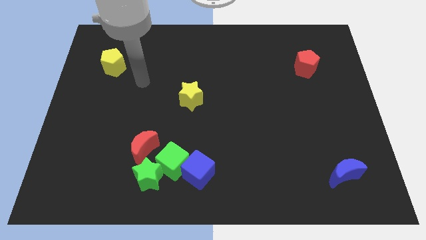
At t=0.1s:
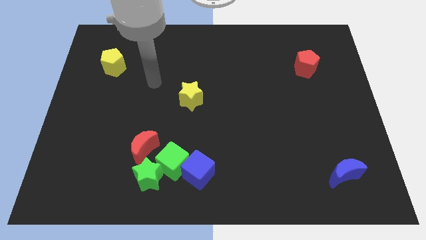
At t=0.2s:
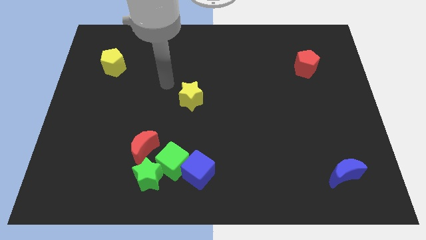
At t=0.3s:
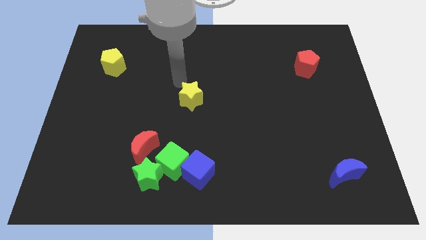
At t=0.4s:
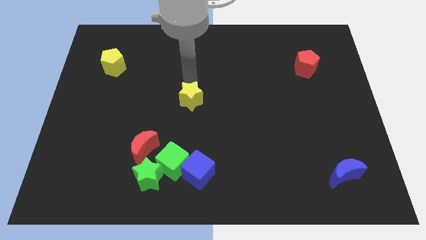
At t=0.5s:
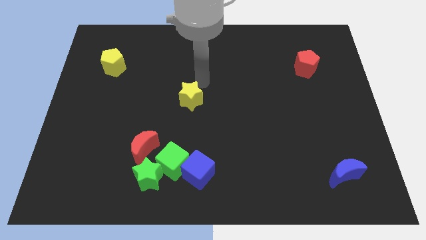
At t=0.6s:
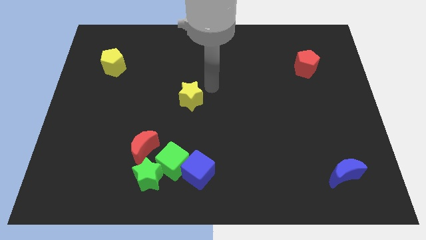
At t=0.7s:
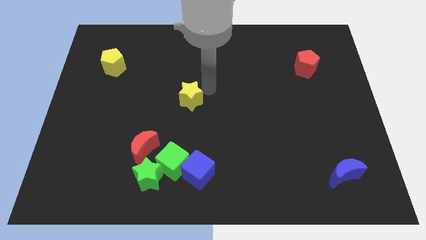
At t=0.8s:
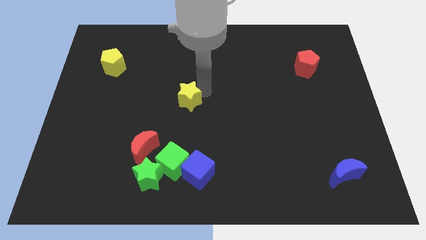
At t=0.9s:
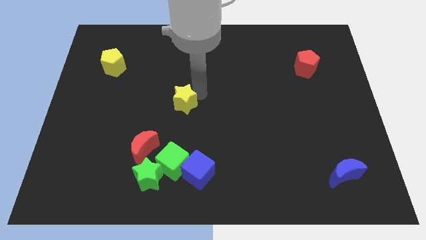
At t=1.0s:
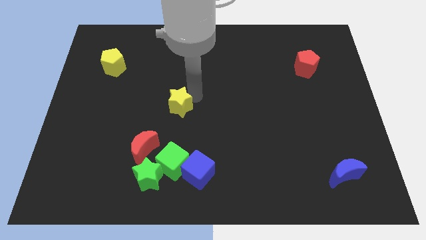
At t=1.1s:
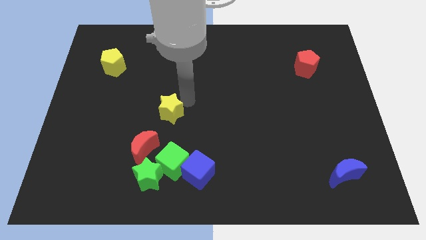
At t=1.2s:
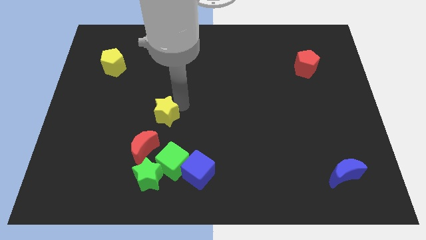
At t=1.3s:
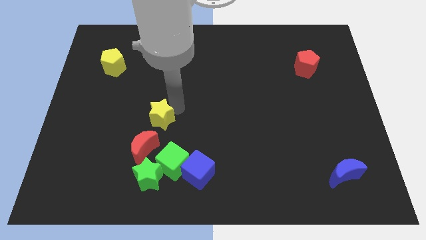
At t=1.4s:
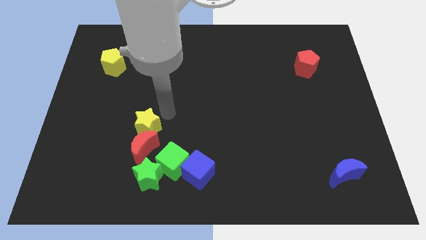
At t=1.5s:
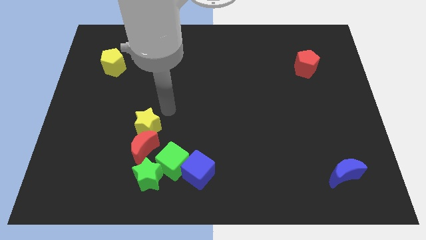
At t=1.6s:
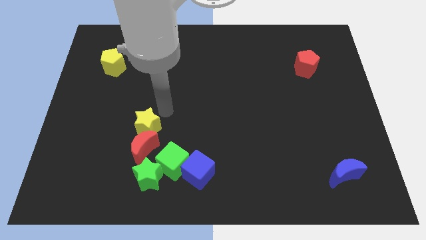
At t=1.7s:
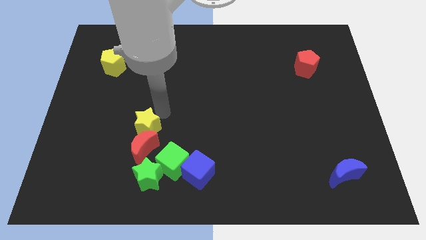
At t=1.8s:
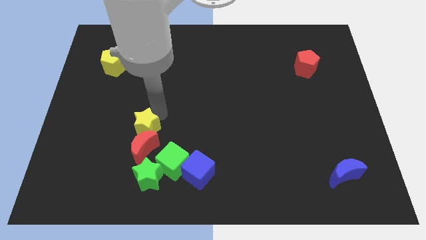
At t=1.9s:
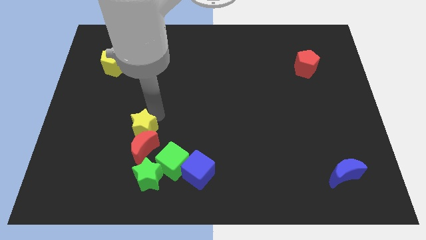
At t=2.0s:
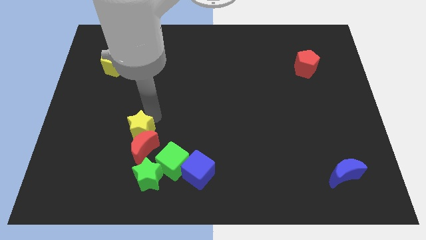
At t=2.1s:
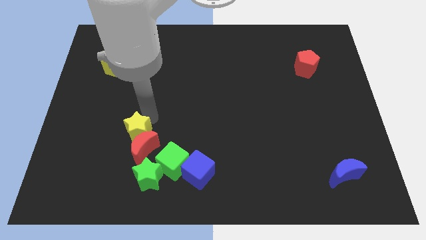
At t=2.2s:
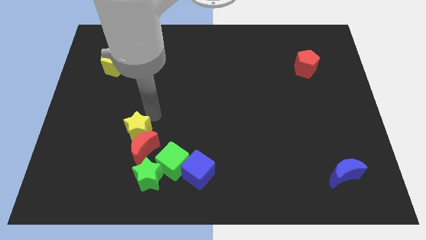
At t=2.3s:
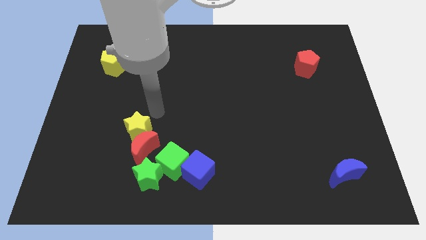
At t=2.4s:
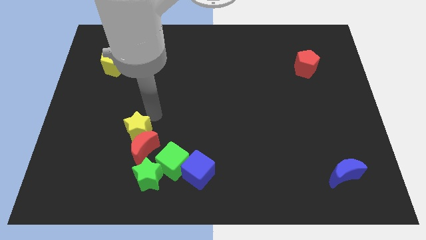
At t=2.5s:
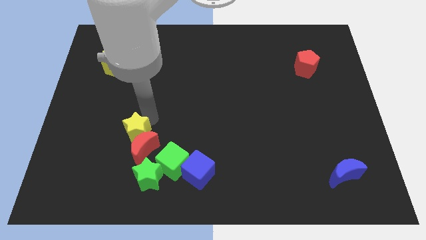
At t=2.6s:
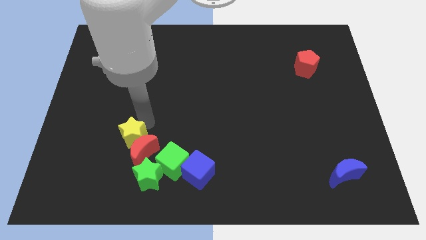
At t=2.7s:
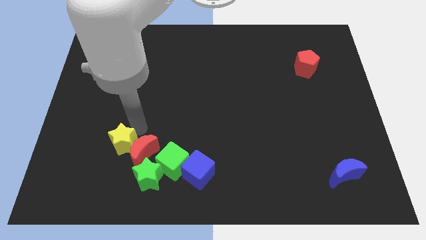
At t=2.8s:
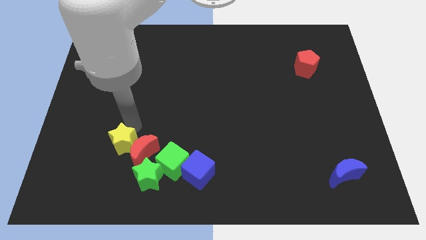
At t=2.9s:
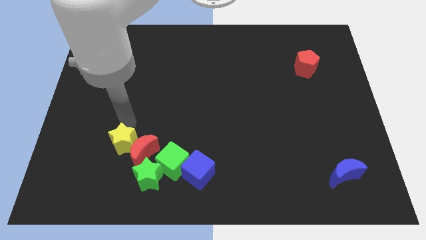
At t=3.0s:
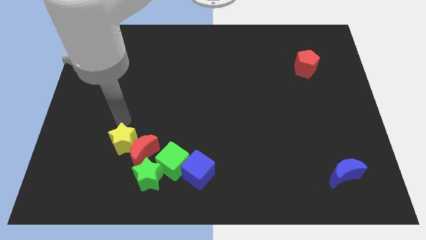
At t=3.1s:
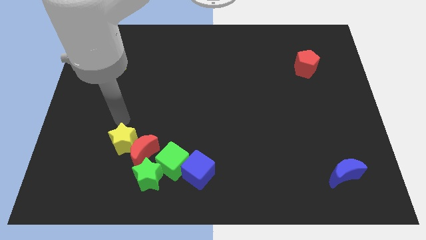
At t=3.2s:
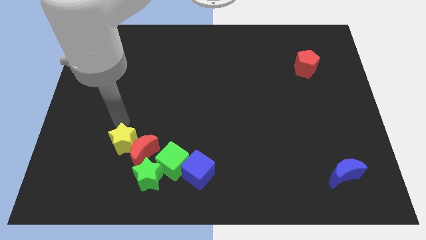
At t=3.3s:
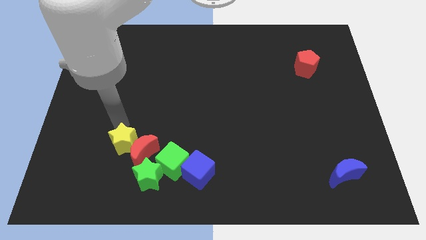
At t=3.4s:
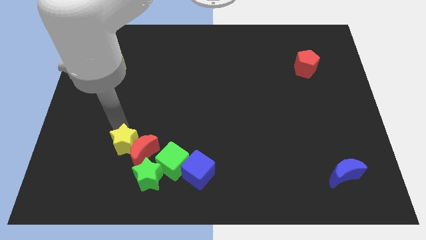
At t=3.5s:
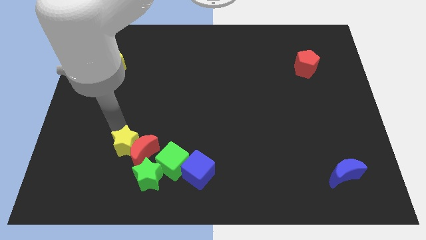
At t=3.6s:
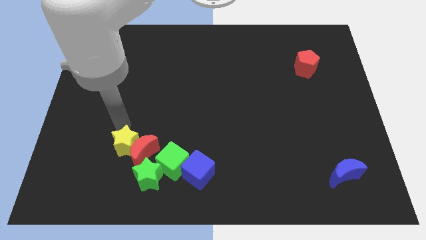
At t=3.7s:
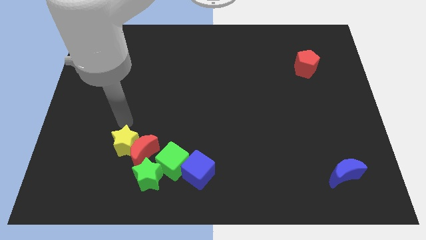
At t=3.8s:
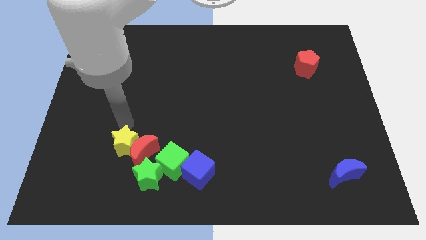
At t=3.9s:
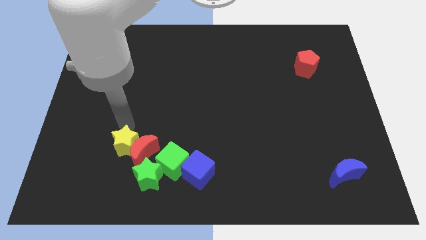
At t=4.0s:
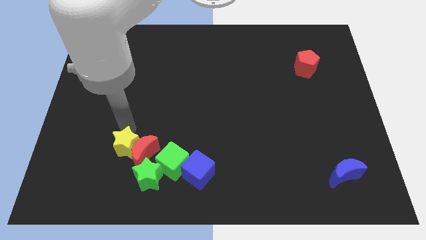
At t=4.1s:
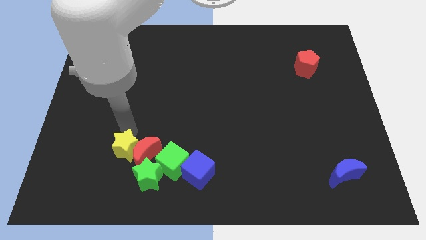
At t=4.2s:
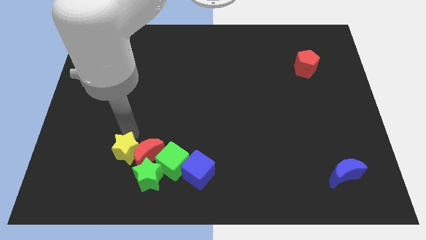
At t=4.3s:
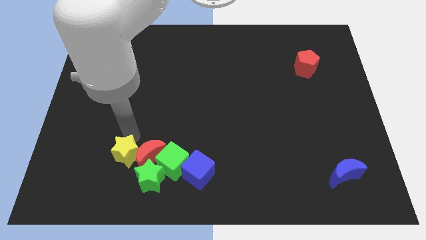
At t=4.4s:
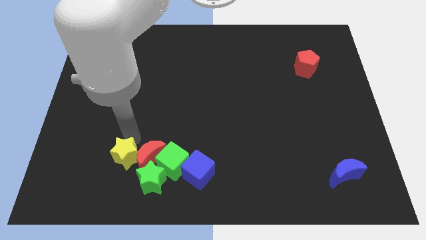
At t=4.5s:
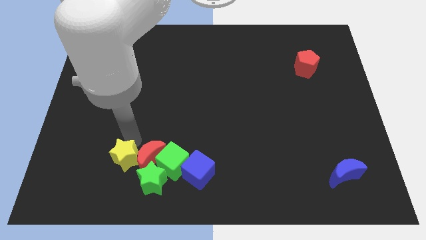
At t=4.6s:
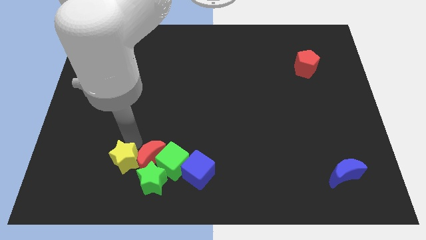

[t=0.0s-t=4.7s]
move the yellow star left of the blue cube

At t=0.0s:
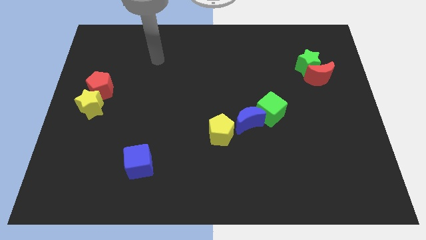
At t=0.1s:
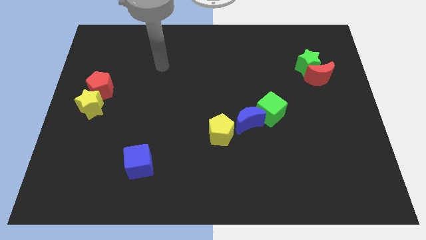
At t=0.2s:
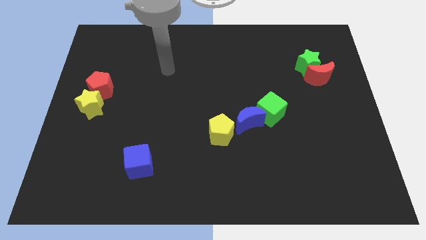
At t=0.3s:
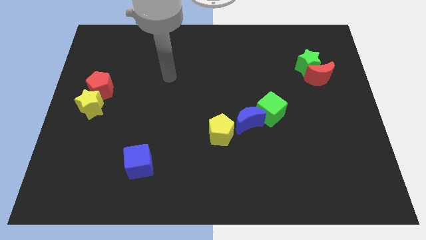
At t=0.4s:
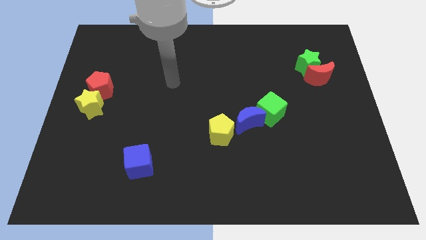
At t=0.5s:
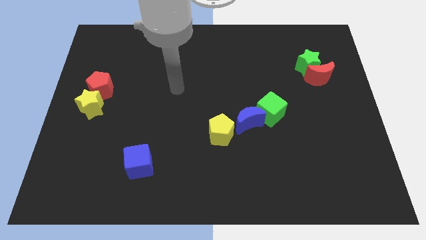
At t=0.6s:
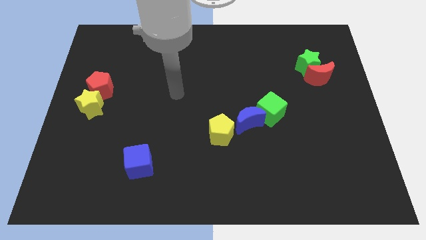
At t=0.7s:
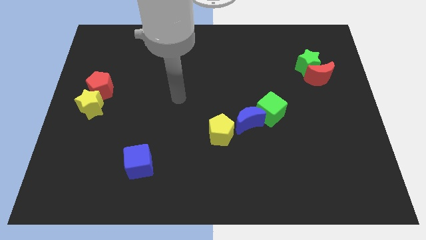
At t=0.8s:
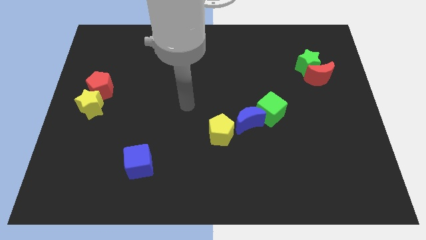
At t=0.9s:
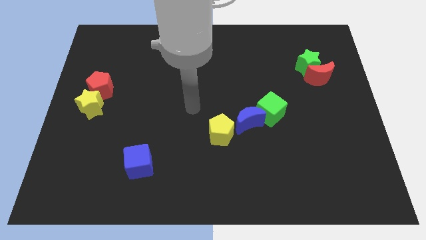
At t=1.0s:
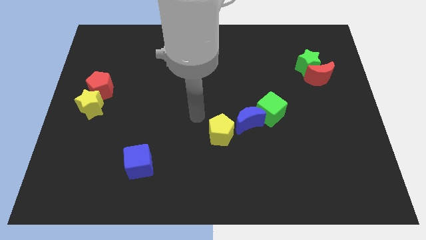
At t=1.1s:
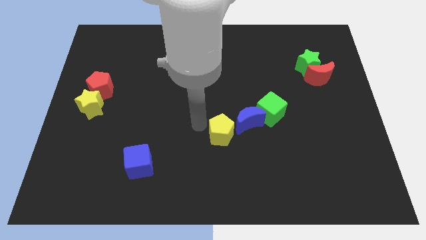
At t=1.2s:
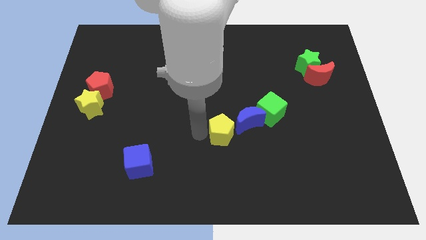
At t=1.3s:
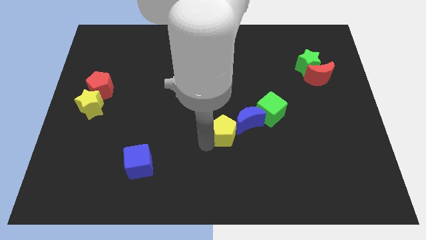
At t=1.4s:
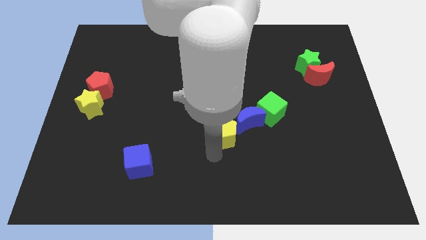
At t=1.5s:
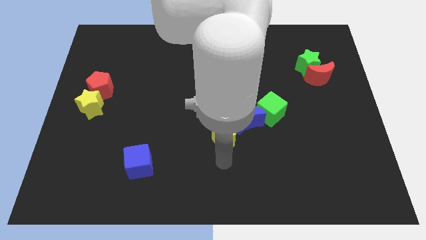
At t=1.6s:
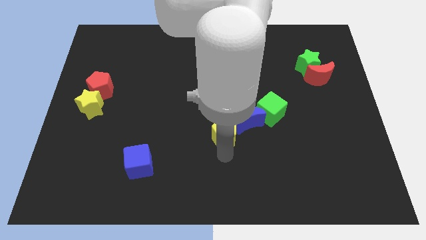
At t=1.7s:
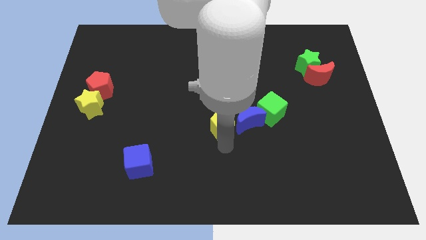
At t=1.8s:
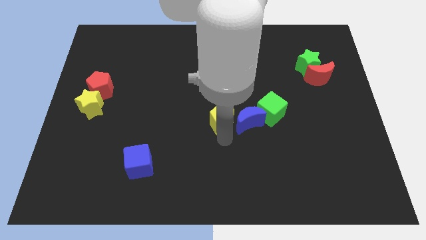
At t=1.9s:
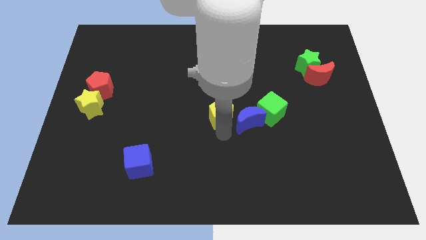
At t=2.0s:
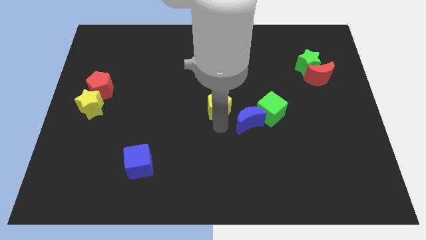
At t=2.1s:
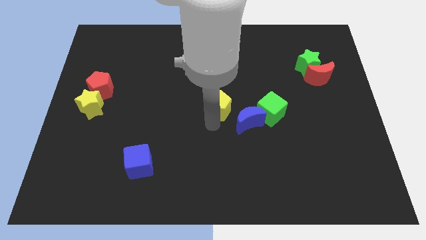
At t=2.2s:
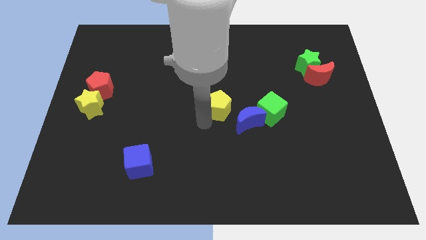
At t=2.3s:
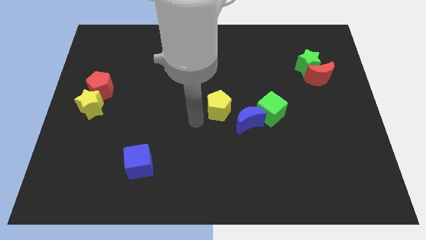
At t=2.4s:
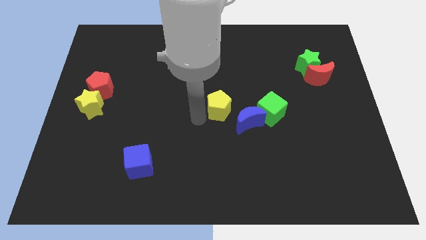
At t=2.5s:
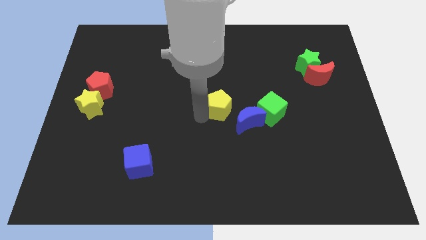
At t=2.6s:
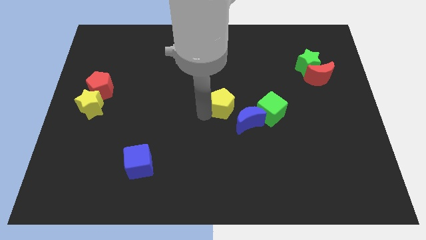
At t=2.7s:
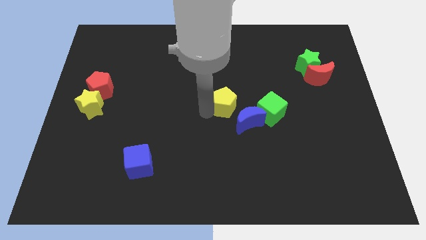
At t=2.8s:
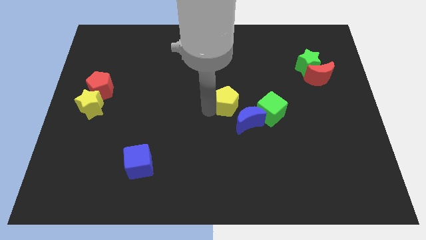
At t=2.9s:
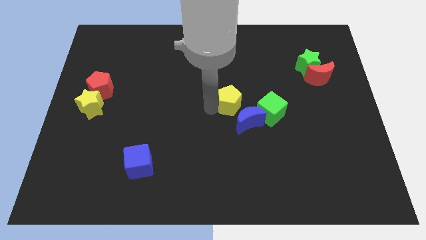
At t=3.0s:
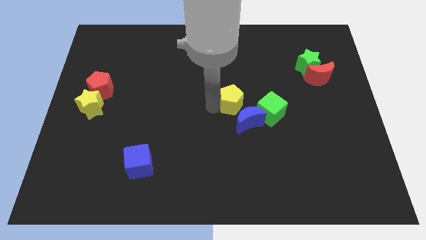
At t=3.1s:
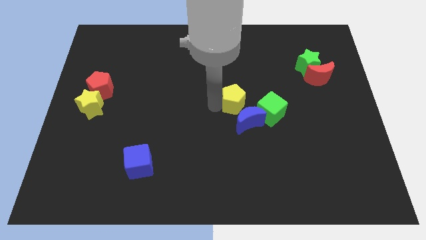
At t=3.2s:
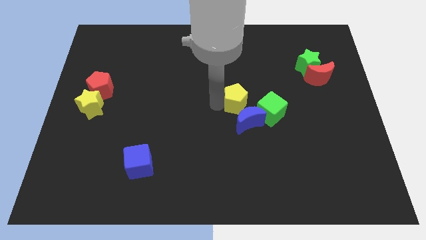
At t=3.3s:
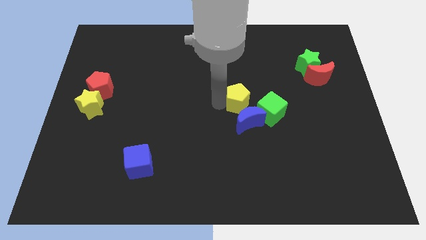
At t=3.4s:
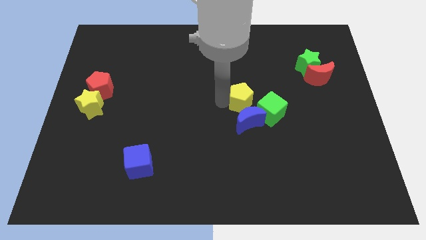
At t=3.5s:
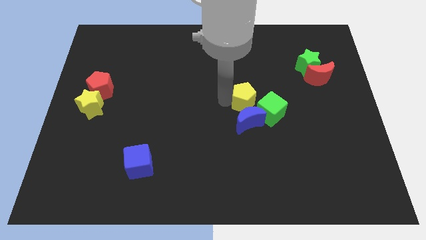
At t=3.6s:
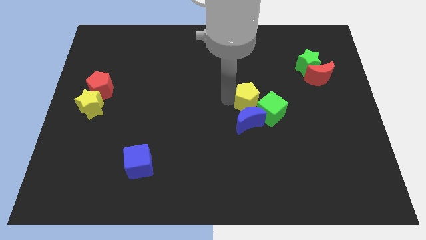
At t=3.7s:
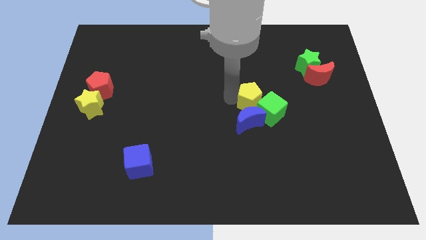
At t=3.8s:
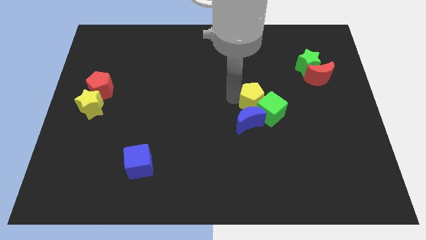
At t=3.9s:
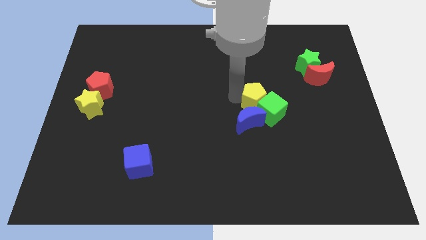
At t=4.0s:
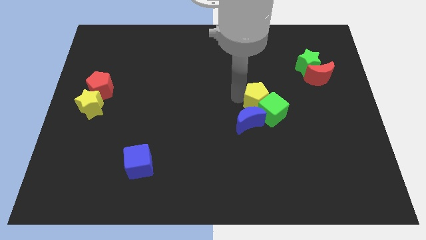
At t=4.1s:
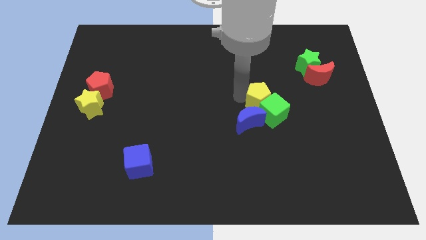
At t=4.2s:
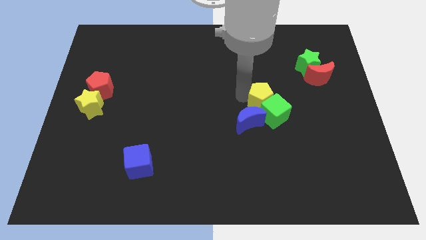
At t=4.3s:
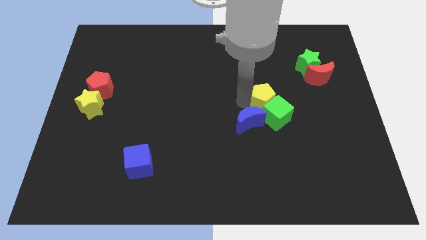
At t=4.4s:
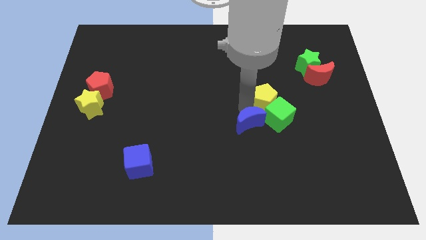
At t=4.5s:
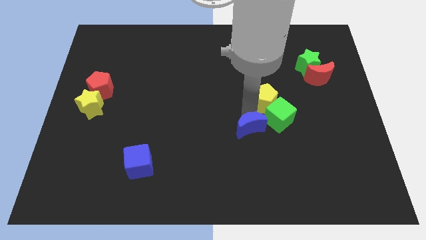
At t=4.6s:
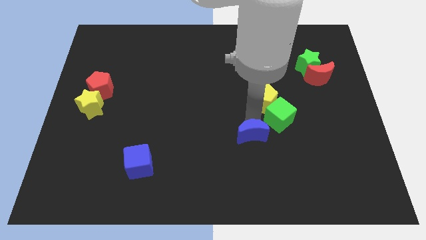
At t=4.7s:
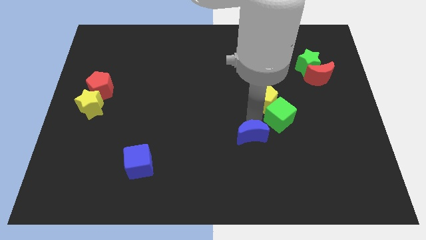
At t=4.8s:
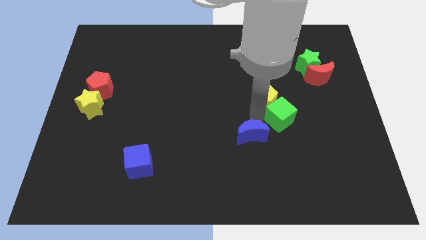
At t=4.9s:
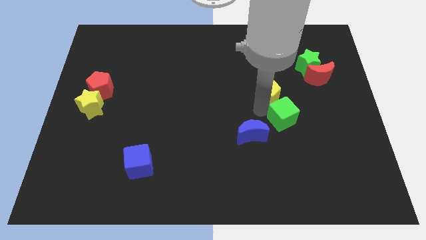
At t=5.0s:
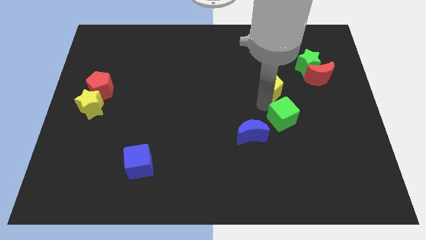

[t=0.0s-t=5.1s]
move the yellow pentagon to the left side of the red moon
